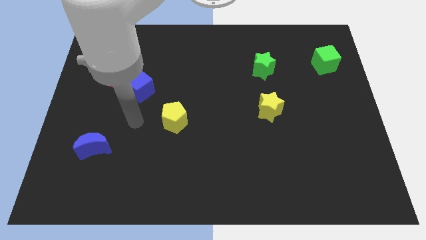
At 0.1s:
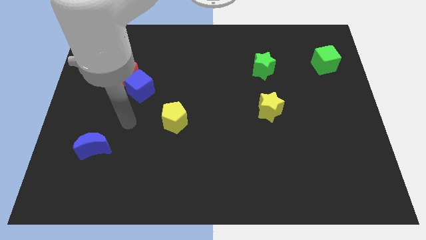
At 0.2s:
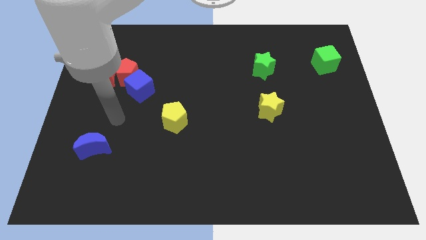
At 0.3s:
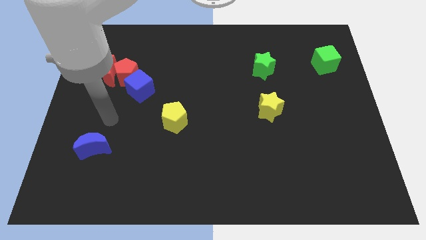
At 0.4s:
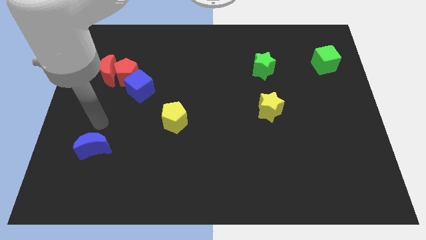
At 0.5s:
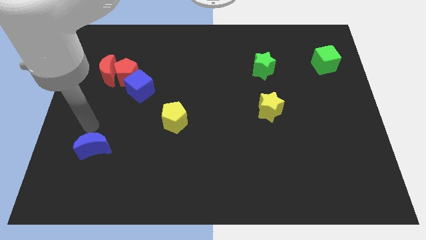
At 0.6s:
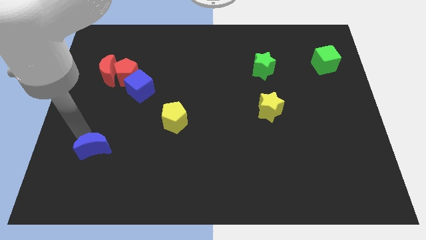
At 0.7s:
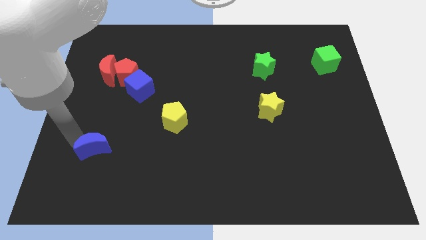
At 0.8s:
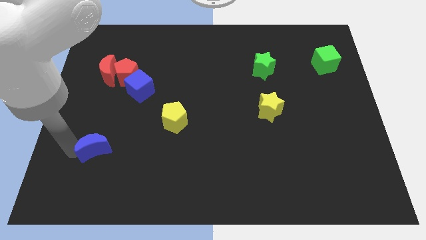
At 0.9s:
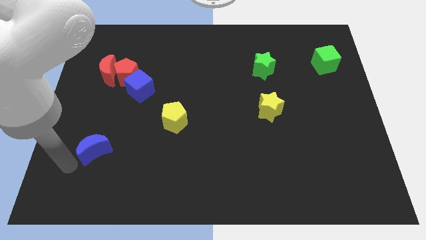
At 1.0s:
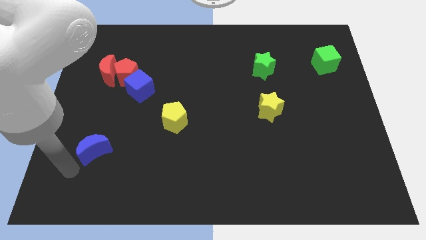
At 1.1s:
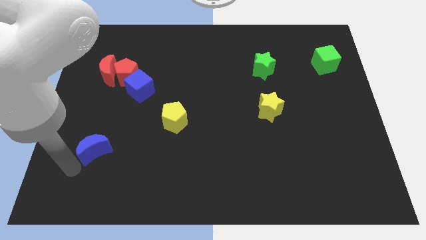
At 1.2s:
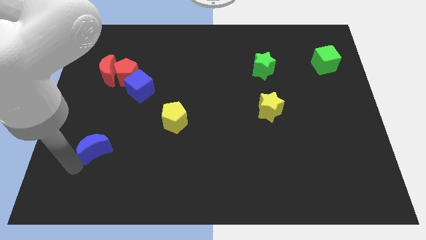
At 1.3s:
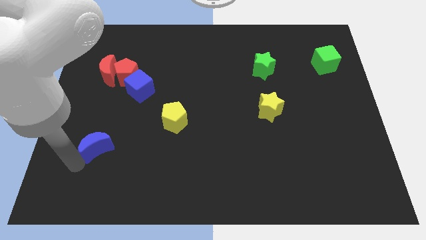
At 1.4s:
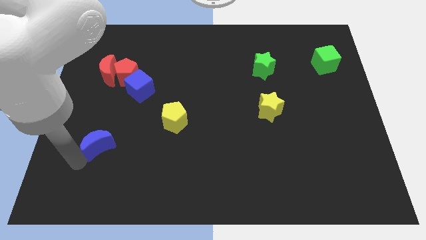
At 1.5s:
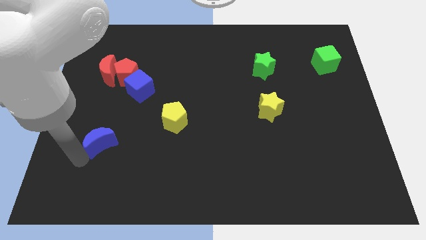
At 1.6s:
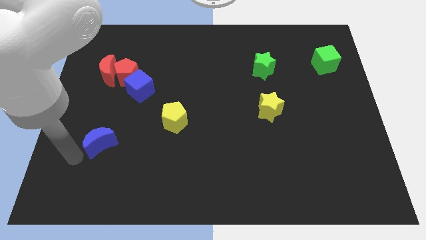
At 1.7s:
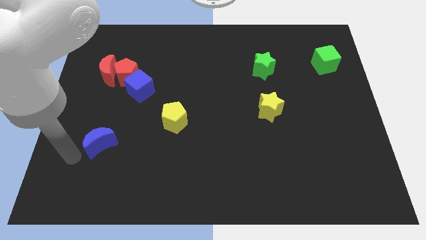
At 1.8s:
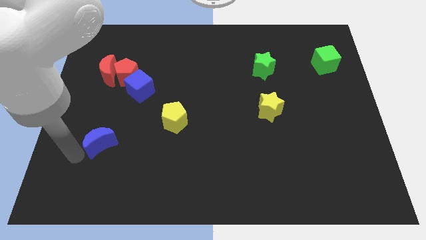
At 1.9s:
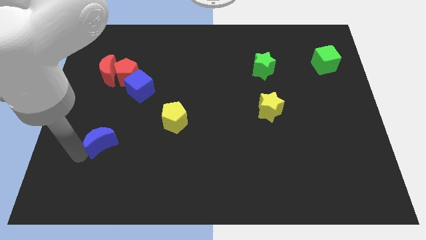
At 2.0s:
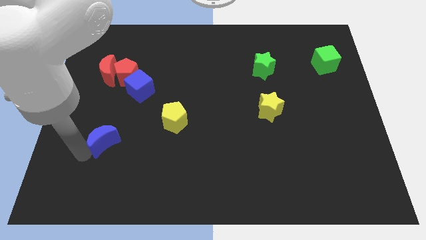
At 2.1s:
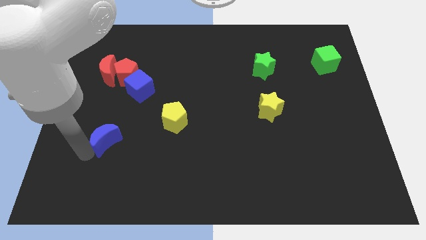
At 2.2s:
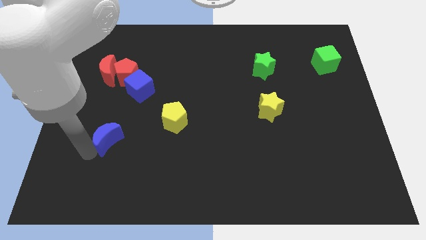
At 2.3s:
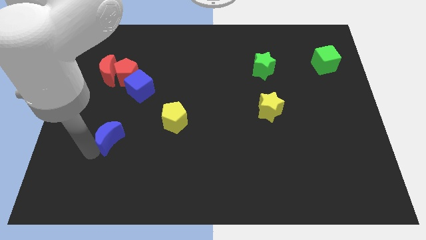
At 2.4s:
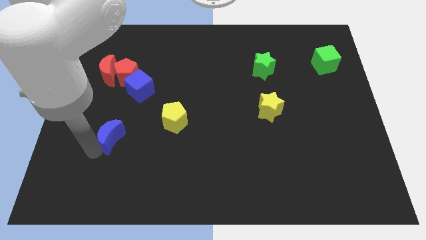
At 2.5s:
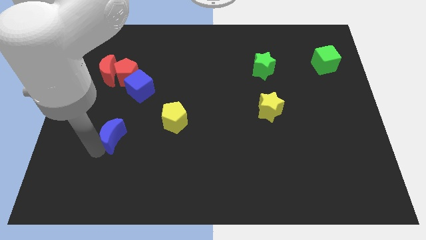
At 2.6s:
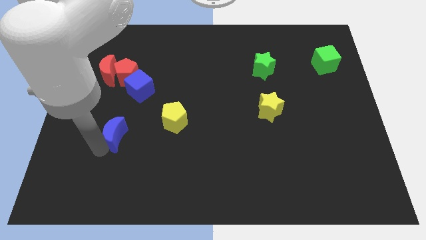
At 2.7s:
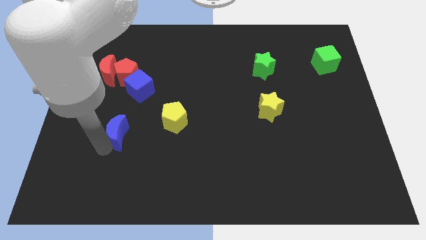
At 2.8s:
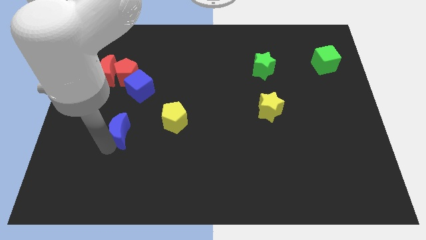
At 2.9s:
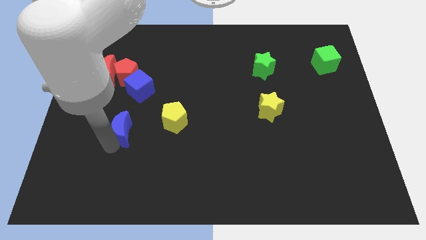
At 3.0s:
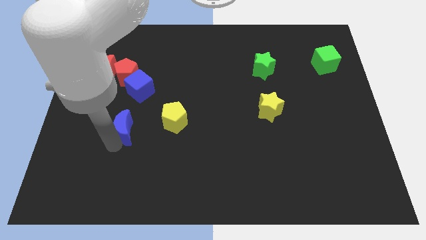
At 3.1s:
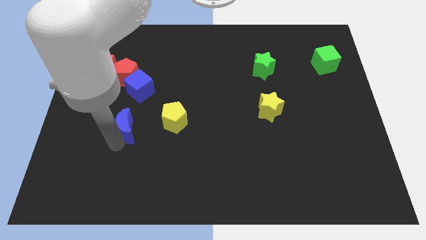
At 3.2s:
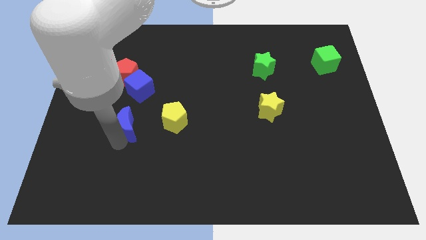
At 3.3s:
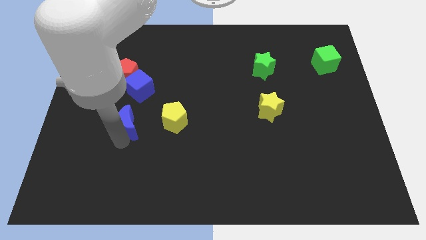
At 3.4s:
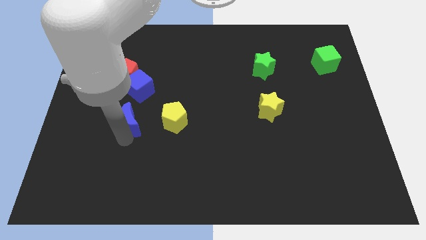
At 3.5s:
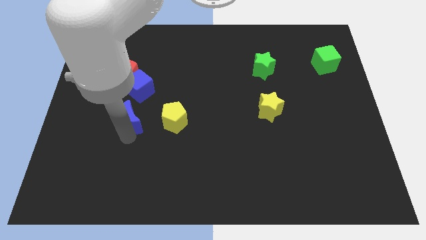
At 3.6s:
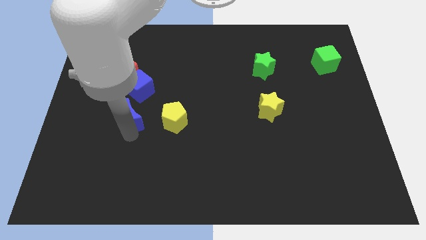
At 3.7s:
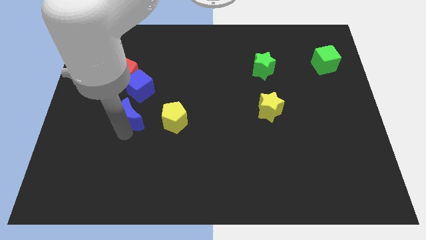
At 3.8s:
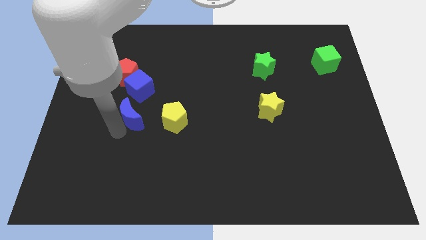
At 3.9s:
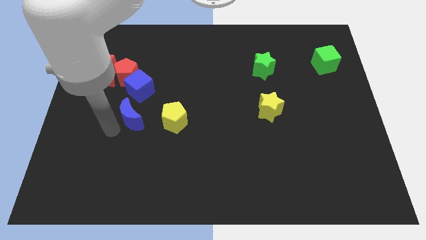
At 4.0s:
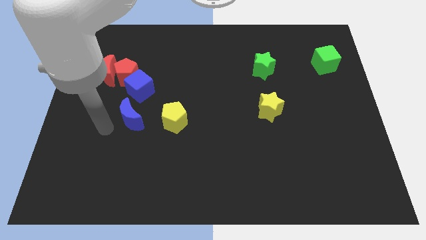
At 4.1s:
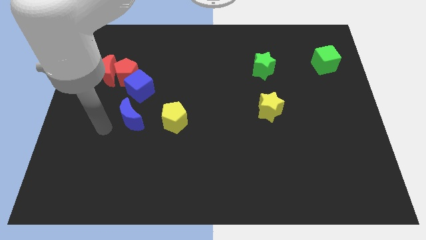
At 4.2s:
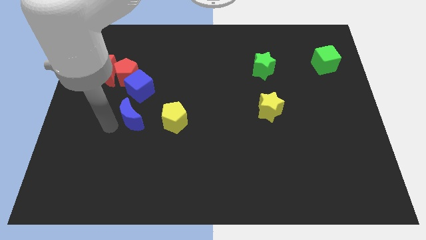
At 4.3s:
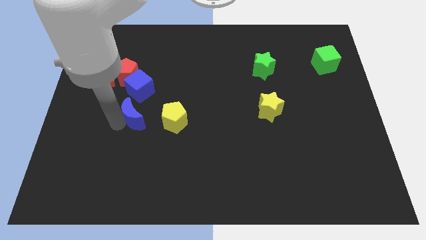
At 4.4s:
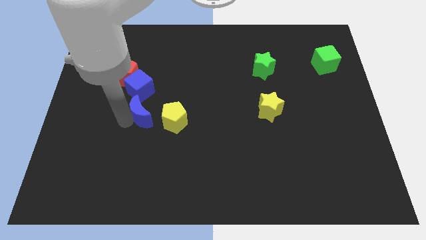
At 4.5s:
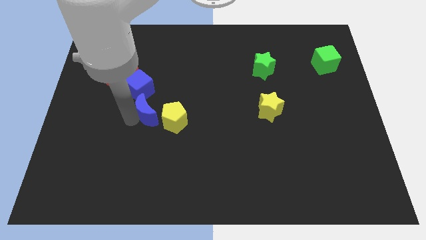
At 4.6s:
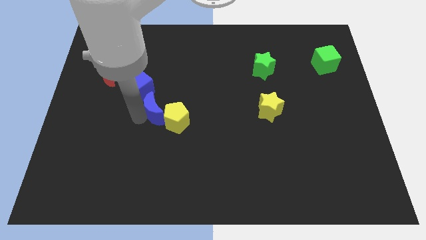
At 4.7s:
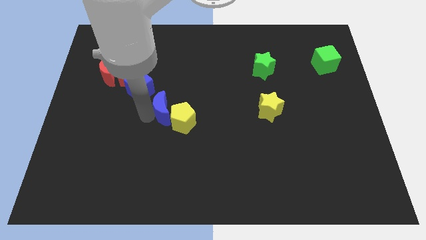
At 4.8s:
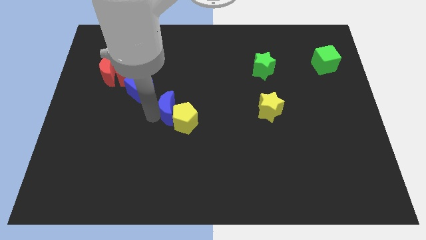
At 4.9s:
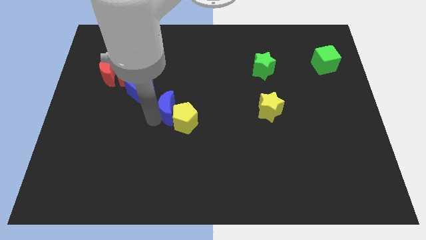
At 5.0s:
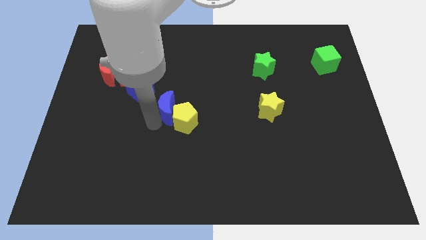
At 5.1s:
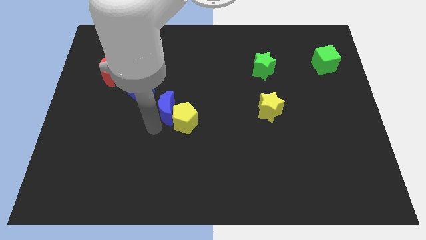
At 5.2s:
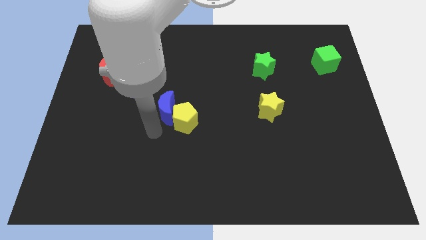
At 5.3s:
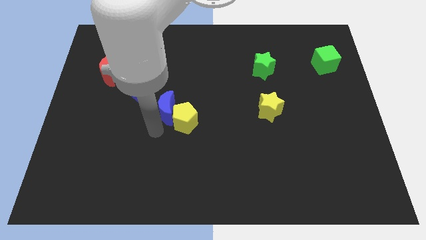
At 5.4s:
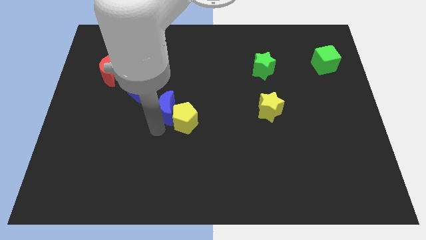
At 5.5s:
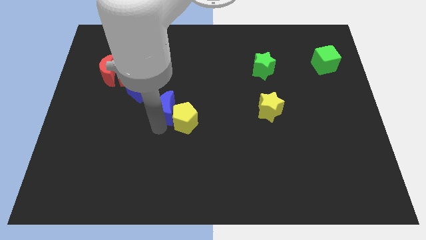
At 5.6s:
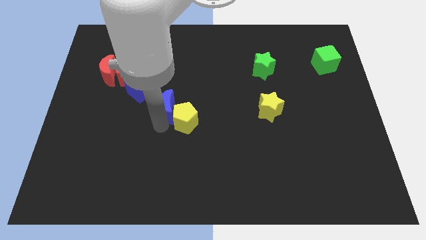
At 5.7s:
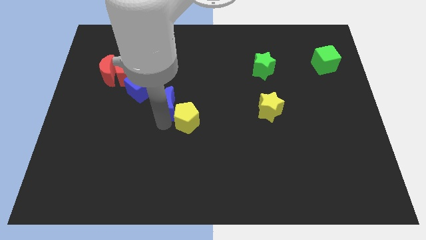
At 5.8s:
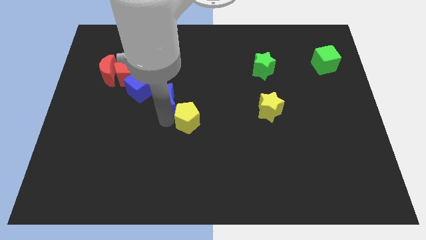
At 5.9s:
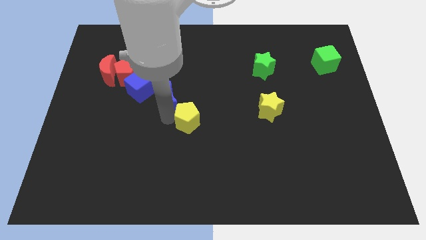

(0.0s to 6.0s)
move the blue moon diagonally up and right

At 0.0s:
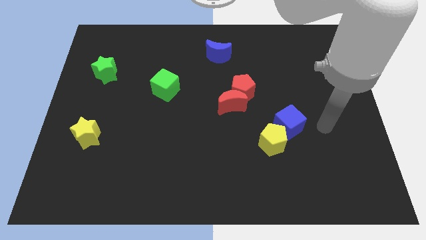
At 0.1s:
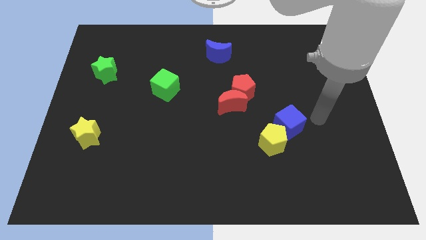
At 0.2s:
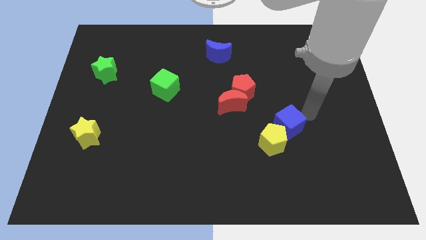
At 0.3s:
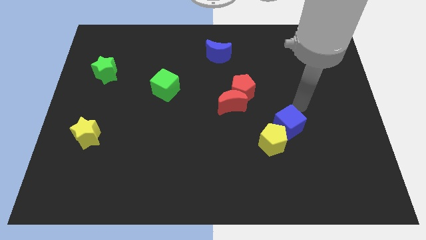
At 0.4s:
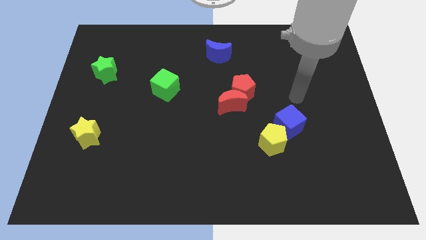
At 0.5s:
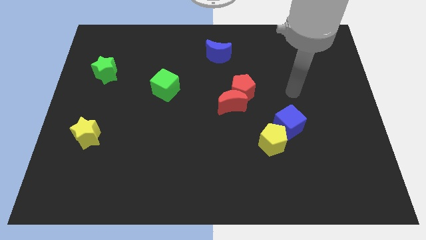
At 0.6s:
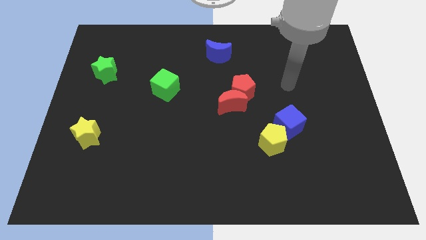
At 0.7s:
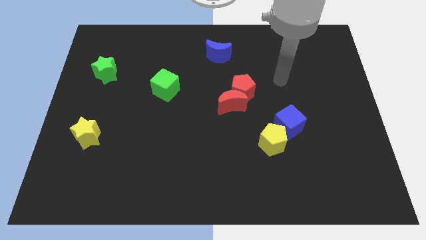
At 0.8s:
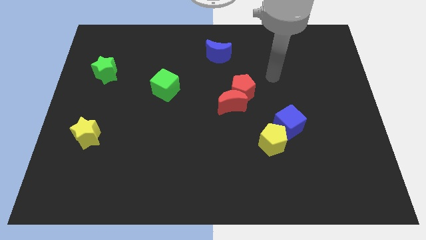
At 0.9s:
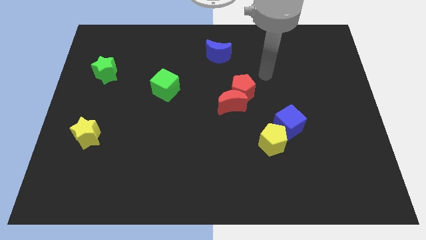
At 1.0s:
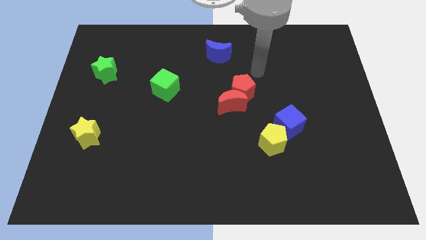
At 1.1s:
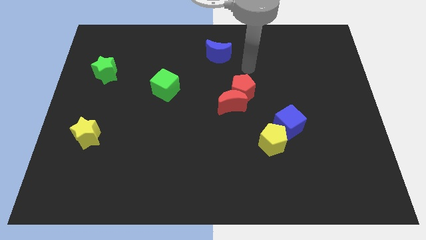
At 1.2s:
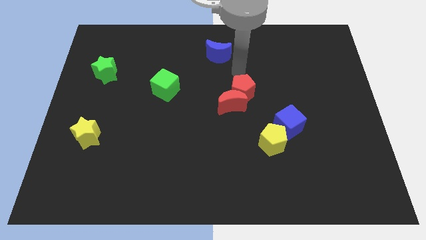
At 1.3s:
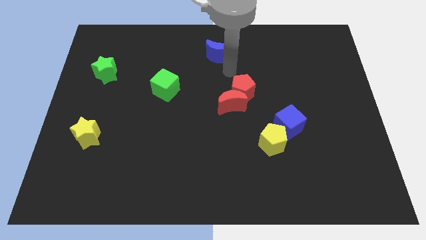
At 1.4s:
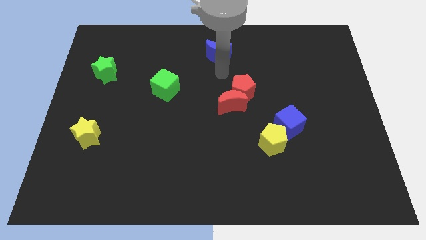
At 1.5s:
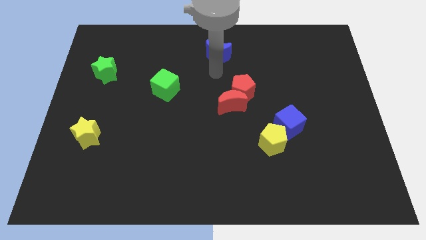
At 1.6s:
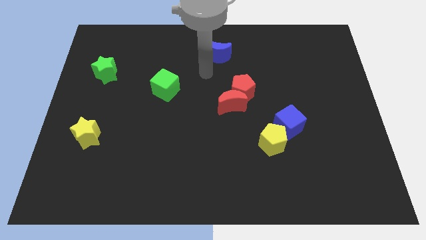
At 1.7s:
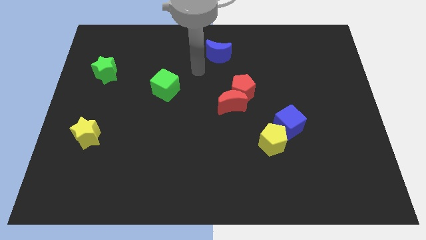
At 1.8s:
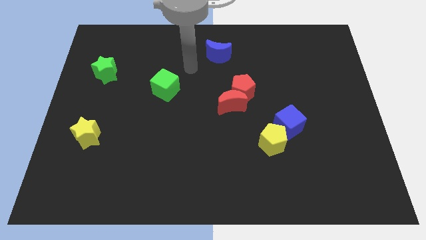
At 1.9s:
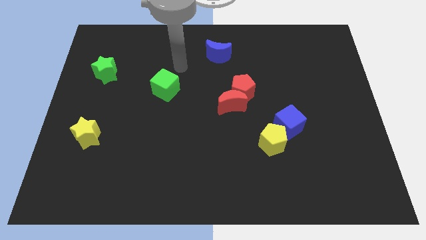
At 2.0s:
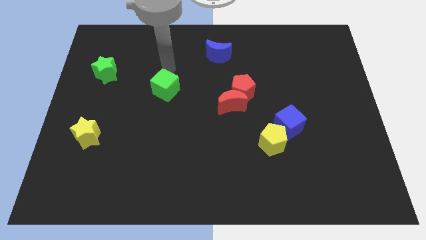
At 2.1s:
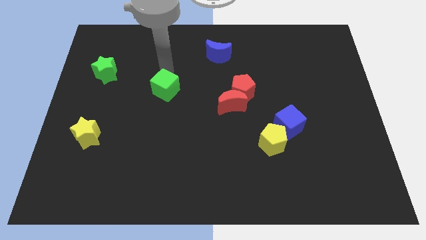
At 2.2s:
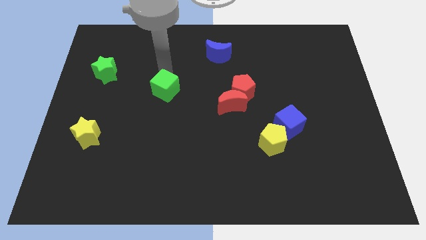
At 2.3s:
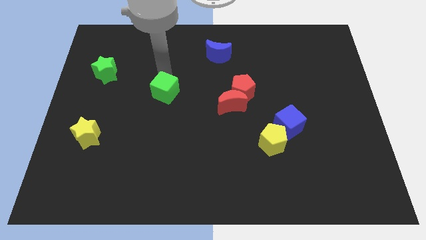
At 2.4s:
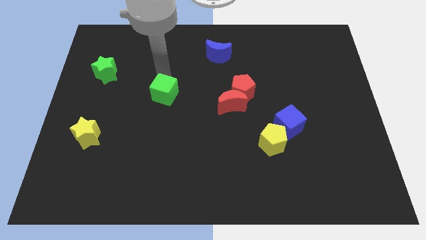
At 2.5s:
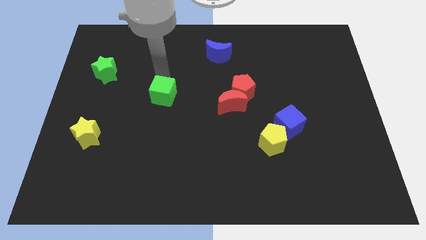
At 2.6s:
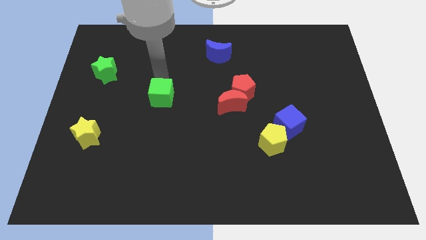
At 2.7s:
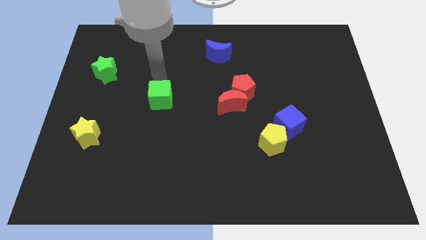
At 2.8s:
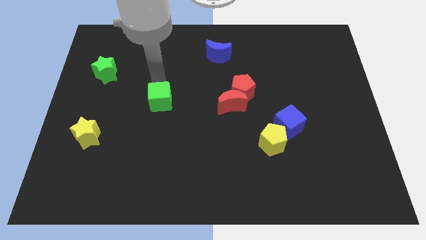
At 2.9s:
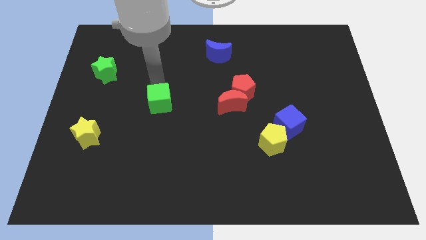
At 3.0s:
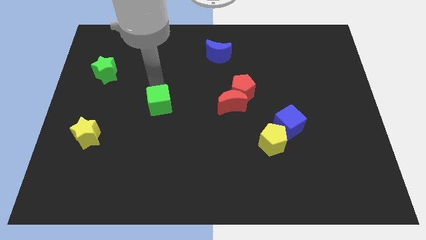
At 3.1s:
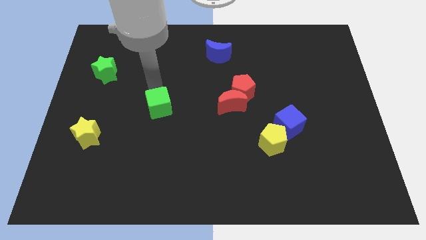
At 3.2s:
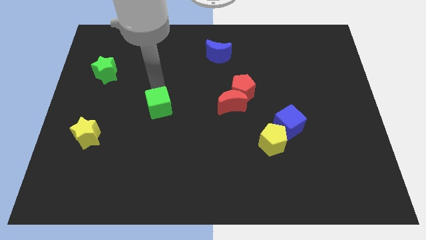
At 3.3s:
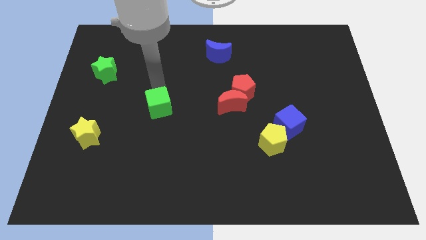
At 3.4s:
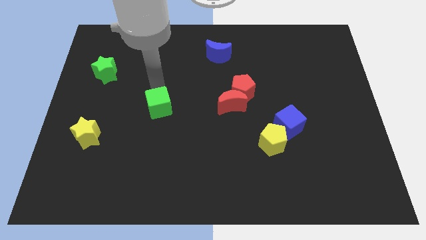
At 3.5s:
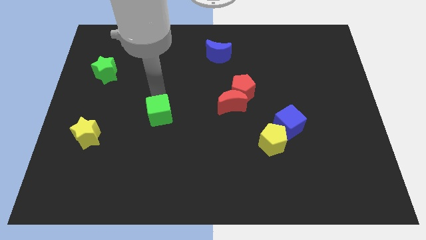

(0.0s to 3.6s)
move the green cube down a little
